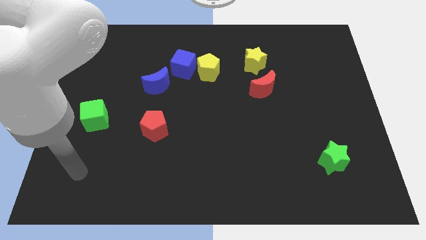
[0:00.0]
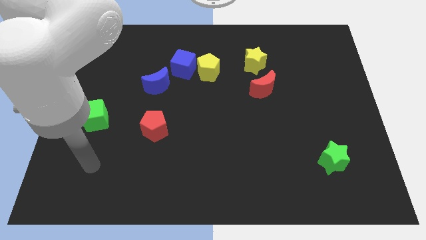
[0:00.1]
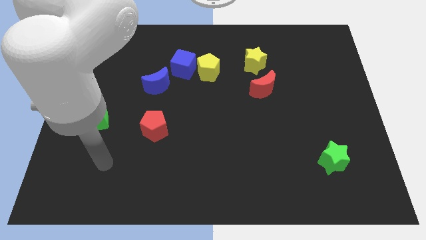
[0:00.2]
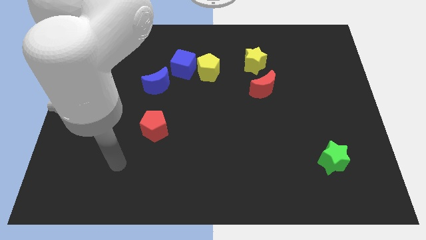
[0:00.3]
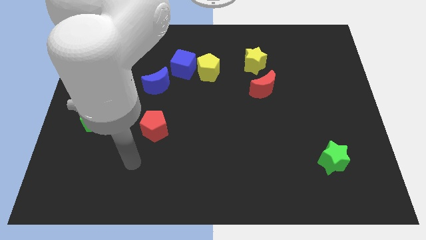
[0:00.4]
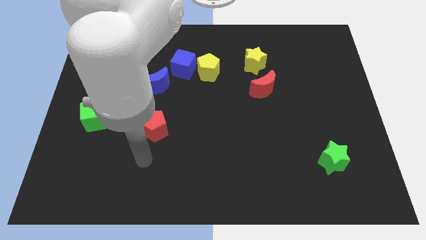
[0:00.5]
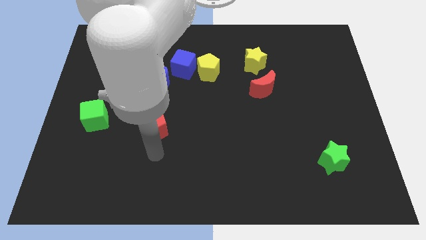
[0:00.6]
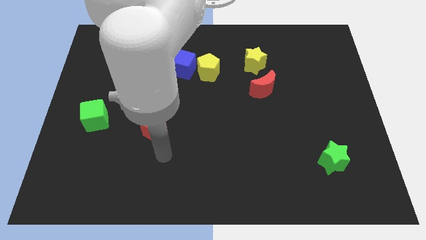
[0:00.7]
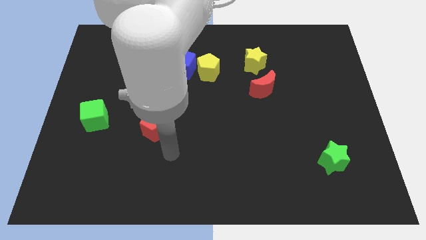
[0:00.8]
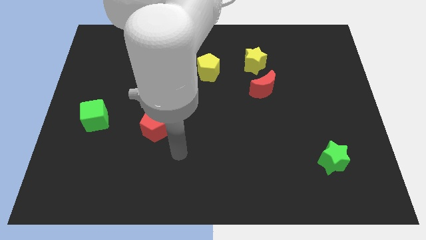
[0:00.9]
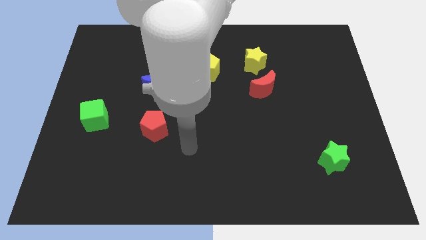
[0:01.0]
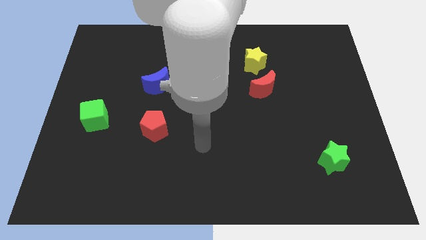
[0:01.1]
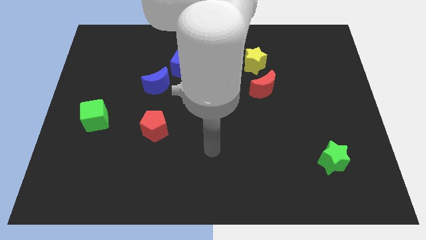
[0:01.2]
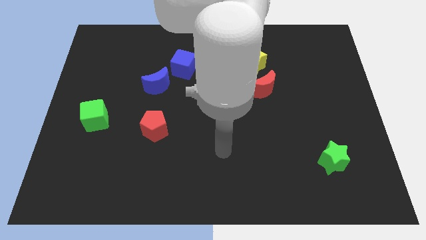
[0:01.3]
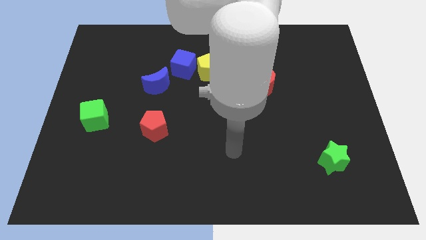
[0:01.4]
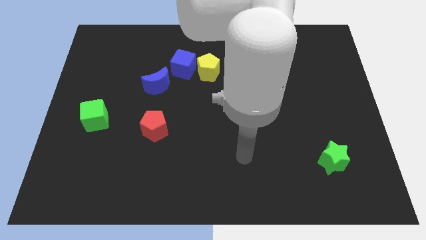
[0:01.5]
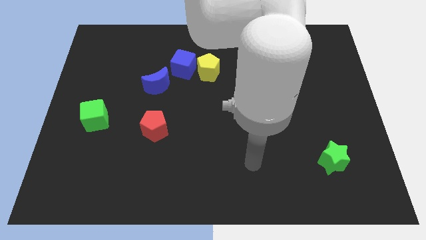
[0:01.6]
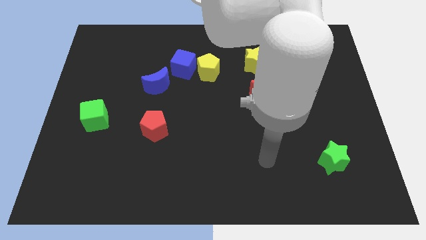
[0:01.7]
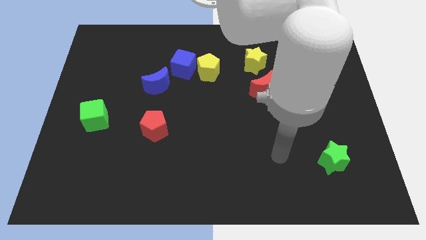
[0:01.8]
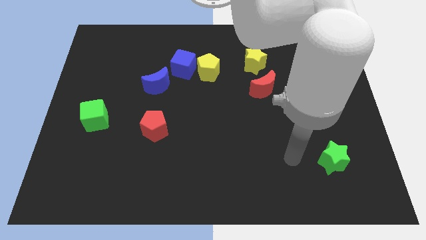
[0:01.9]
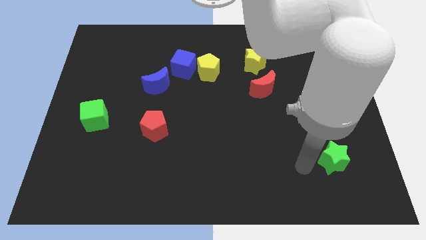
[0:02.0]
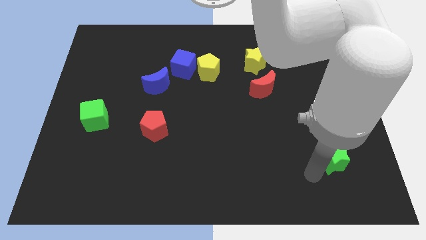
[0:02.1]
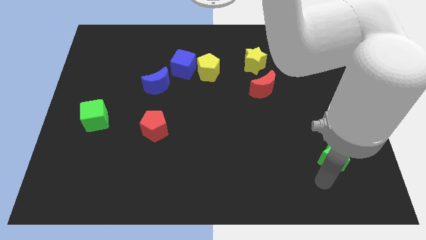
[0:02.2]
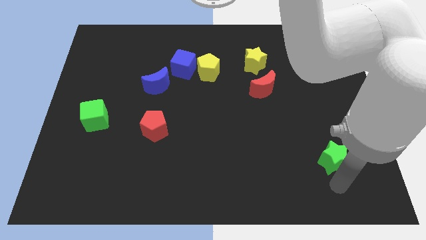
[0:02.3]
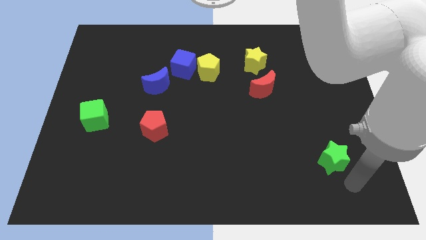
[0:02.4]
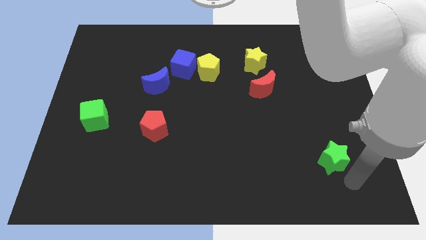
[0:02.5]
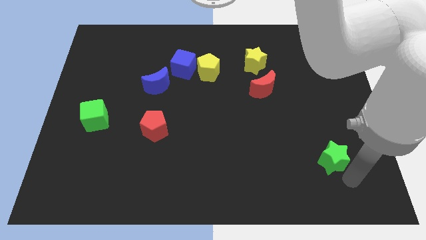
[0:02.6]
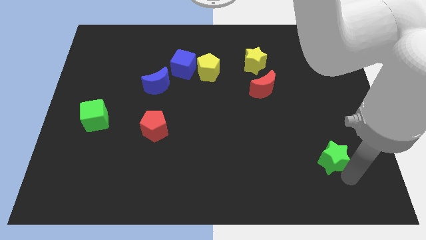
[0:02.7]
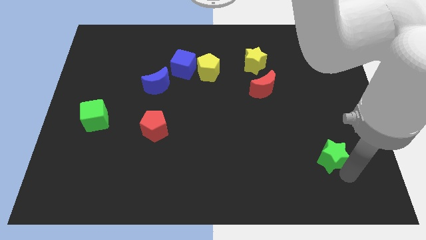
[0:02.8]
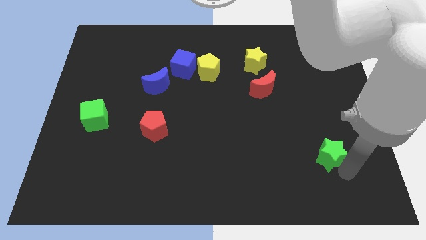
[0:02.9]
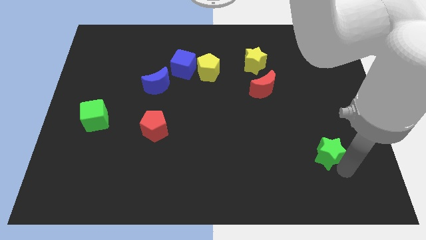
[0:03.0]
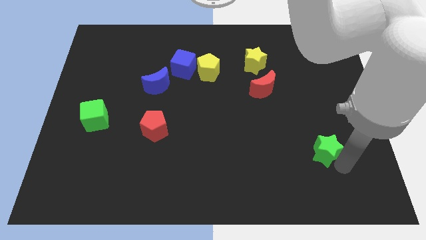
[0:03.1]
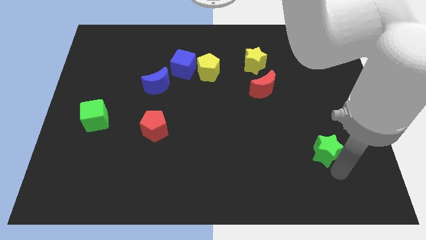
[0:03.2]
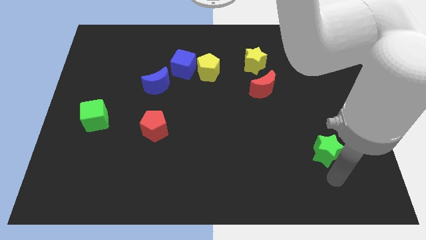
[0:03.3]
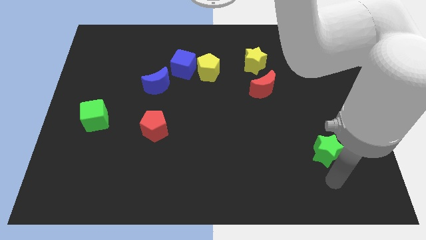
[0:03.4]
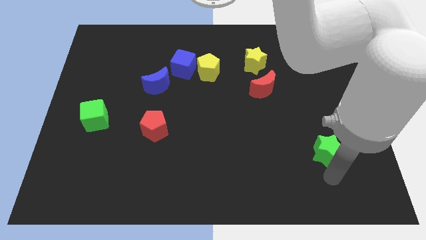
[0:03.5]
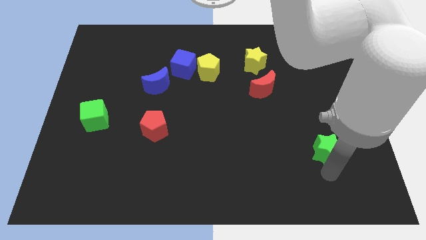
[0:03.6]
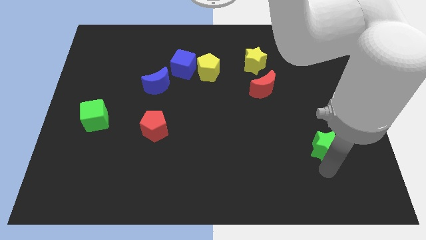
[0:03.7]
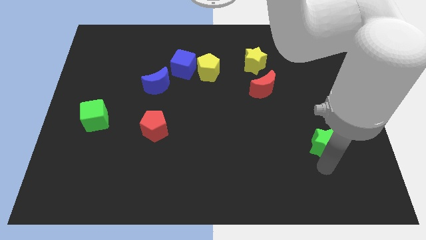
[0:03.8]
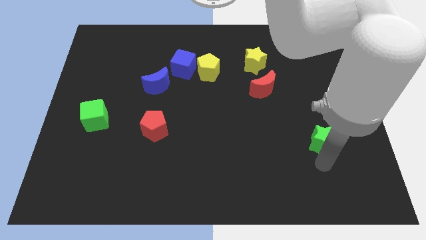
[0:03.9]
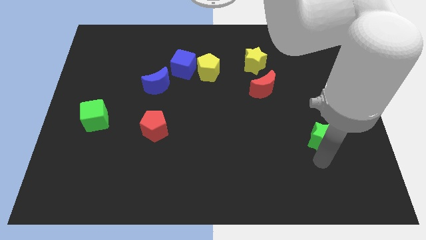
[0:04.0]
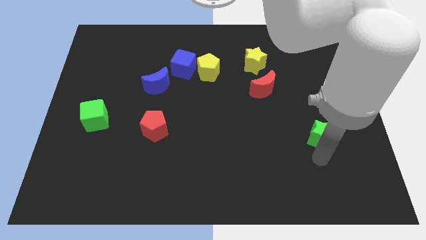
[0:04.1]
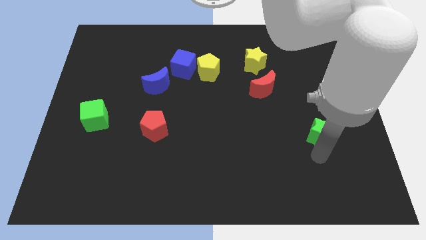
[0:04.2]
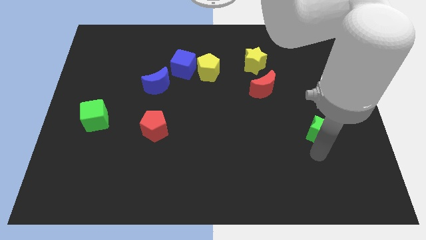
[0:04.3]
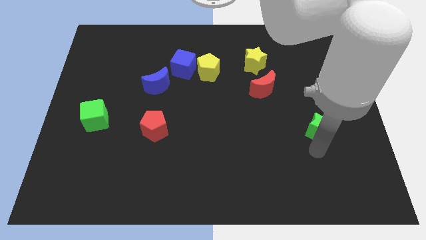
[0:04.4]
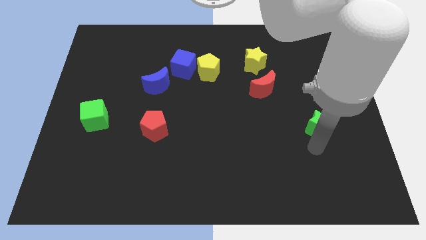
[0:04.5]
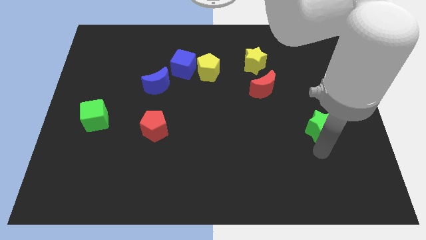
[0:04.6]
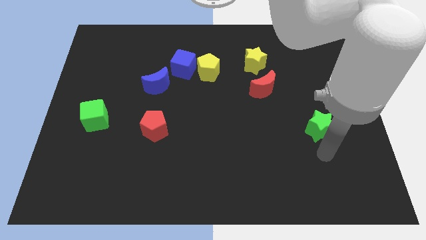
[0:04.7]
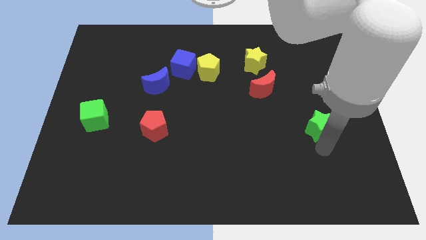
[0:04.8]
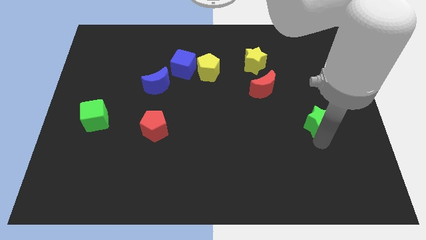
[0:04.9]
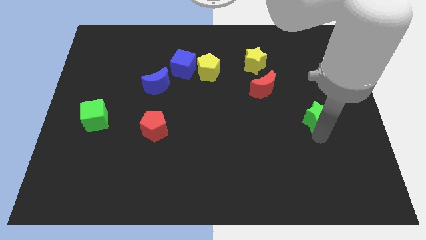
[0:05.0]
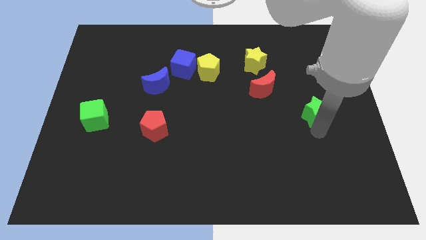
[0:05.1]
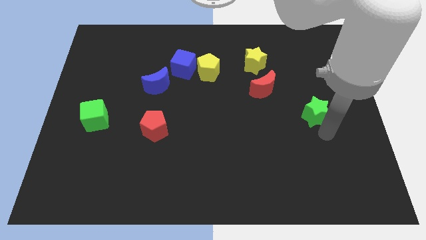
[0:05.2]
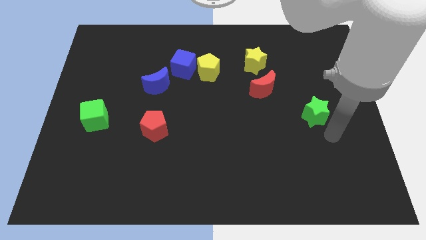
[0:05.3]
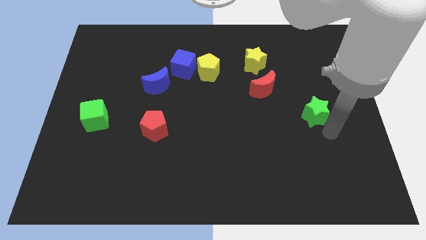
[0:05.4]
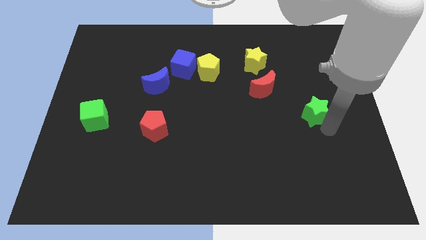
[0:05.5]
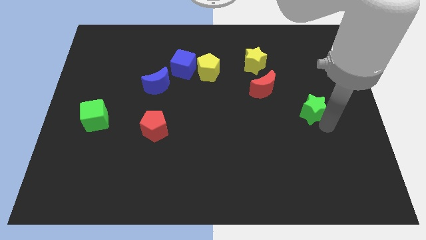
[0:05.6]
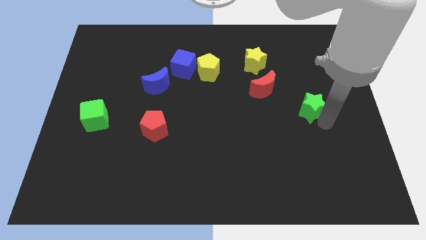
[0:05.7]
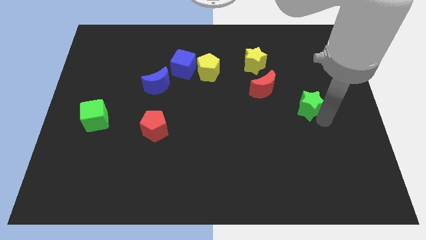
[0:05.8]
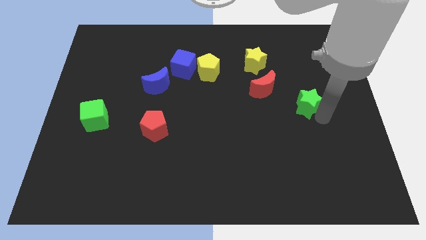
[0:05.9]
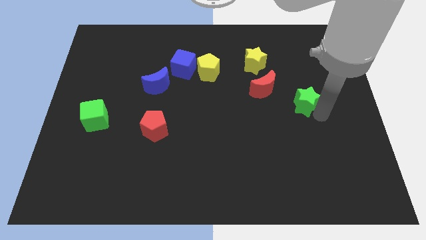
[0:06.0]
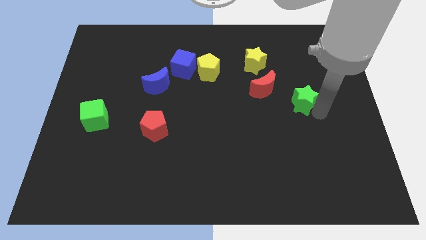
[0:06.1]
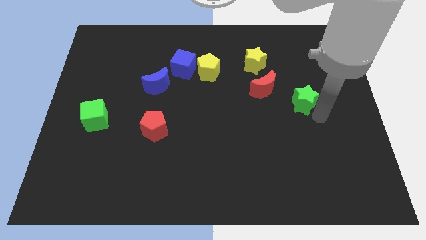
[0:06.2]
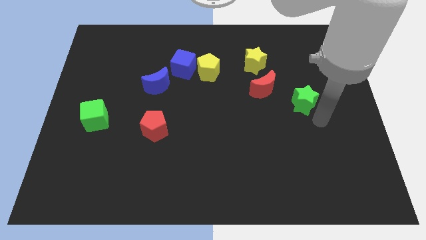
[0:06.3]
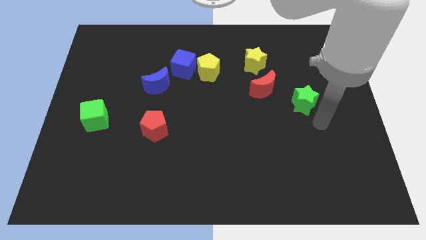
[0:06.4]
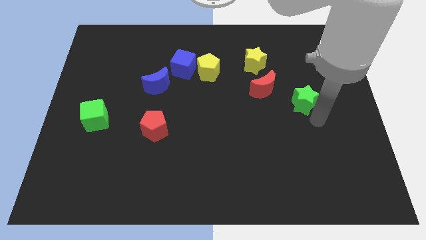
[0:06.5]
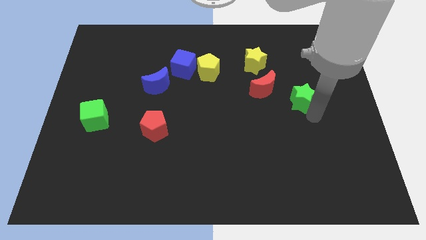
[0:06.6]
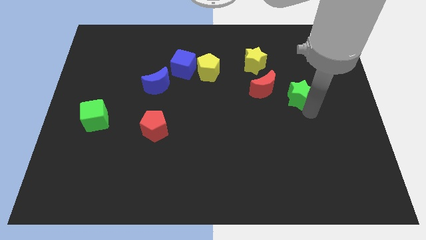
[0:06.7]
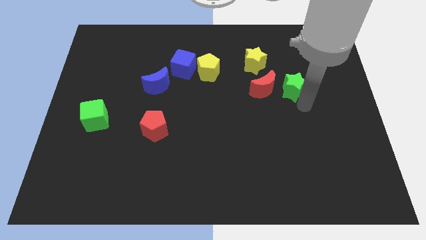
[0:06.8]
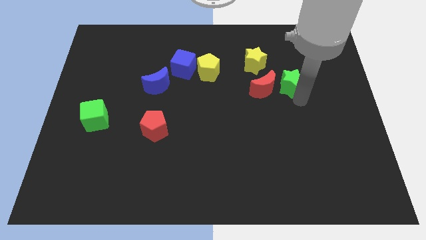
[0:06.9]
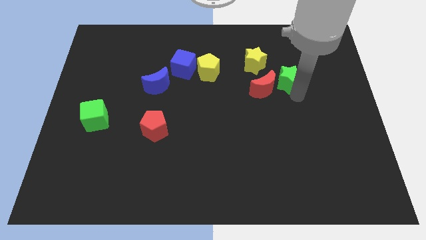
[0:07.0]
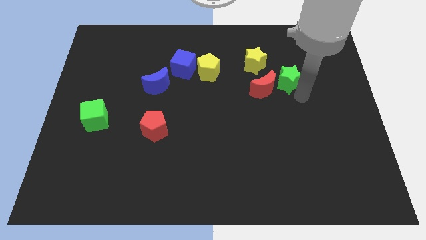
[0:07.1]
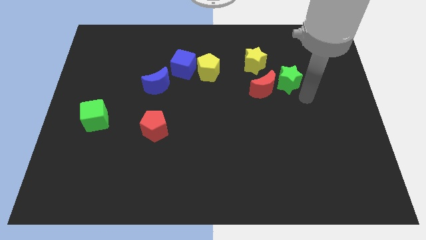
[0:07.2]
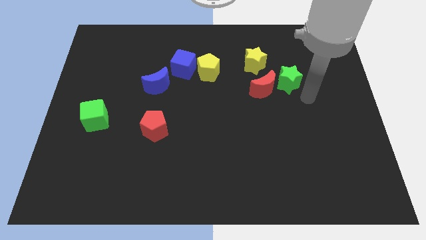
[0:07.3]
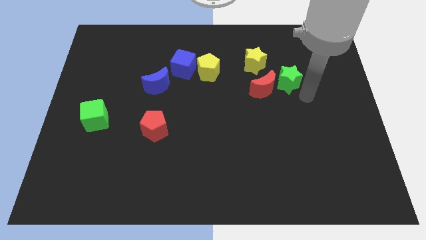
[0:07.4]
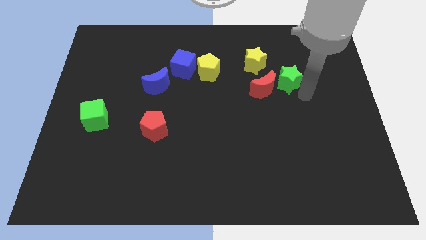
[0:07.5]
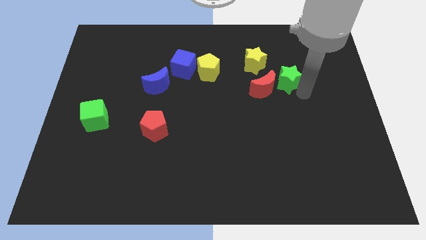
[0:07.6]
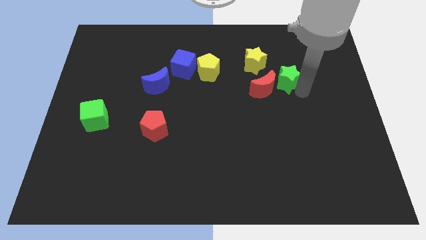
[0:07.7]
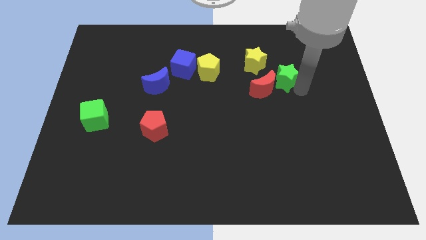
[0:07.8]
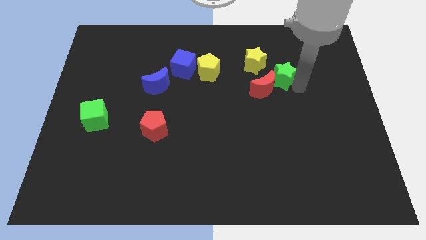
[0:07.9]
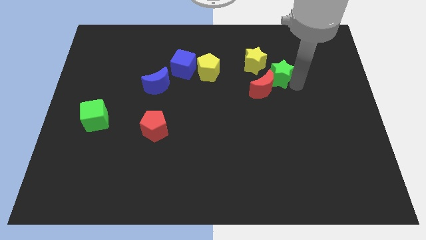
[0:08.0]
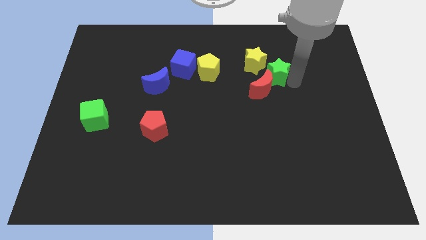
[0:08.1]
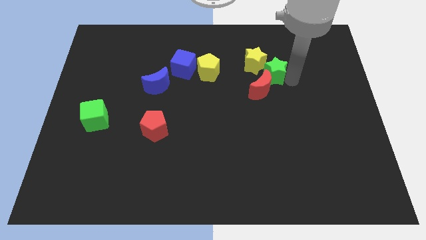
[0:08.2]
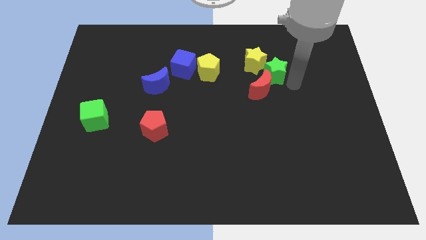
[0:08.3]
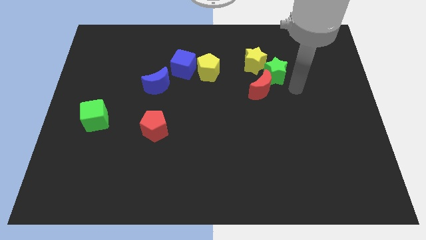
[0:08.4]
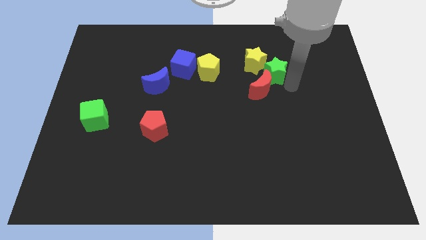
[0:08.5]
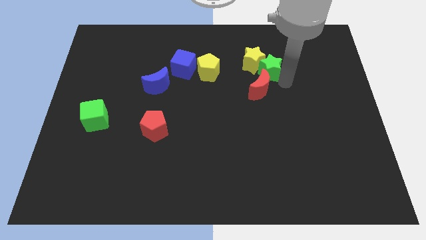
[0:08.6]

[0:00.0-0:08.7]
move the green star to the yellow star

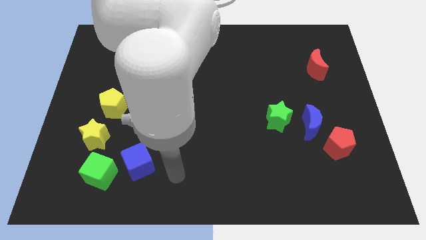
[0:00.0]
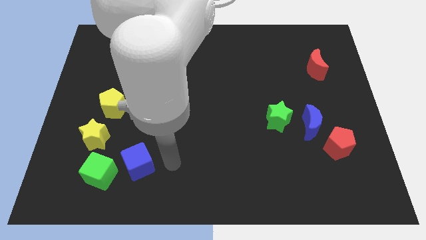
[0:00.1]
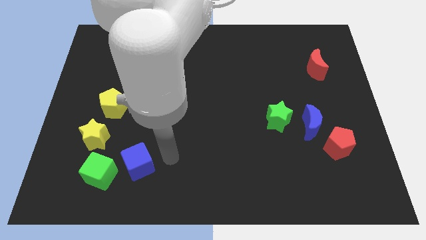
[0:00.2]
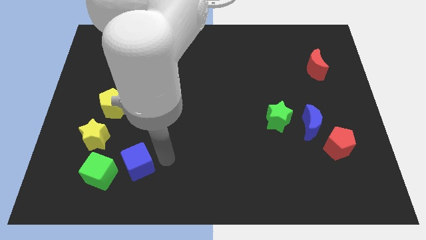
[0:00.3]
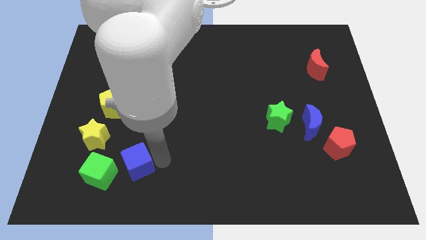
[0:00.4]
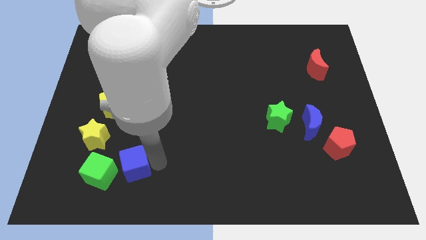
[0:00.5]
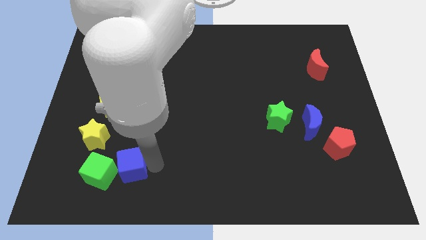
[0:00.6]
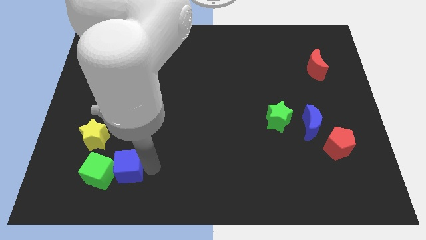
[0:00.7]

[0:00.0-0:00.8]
put the blue cube towards the green cube
